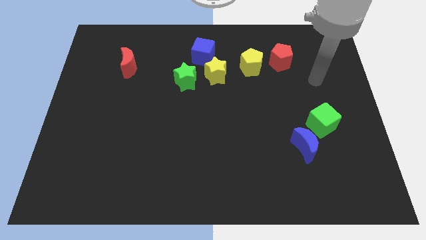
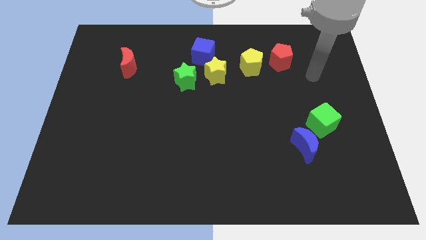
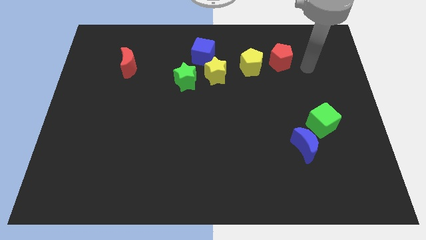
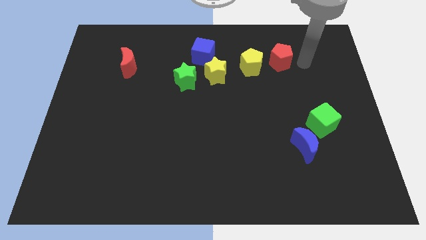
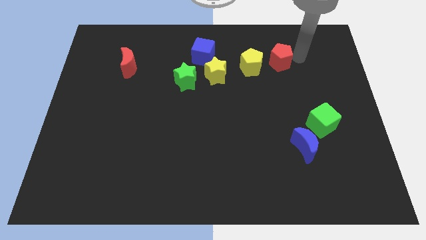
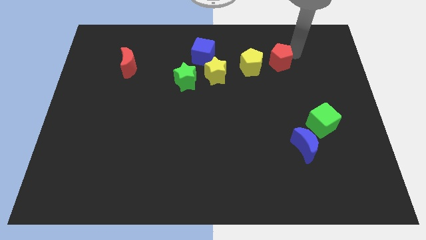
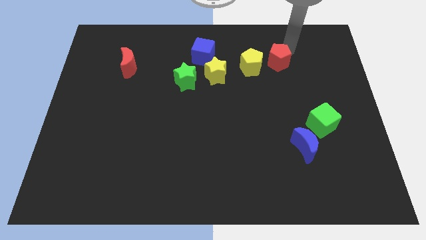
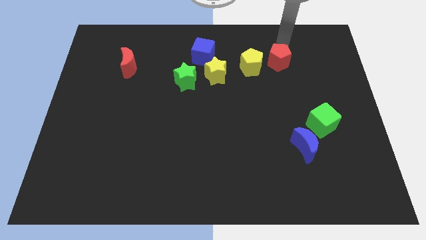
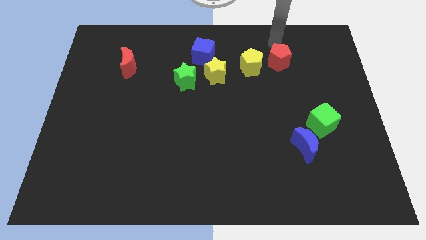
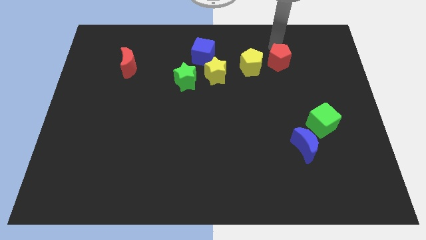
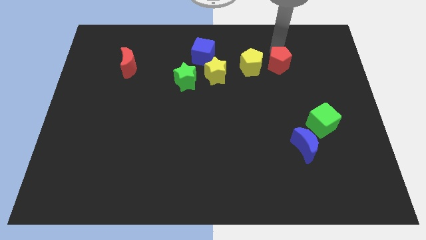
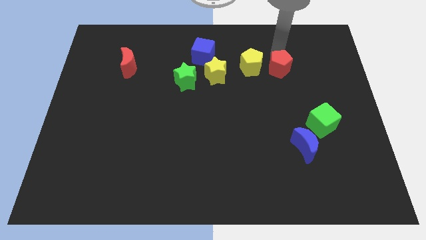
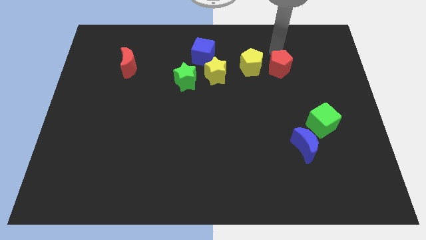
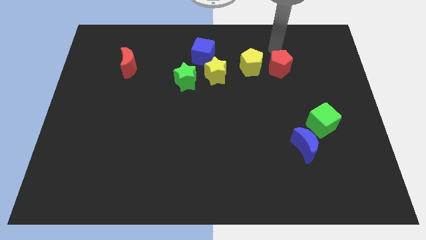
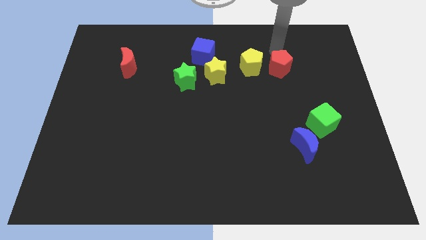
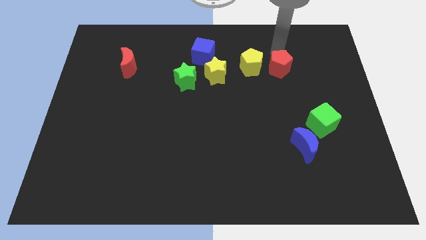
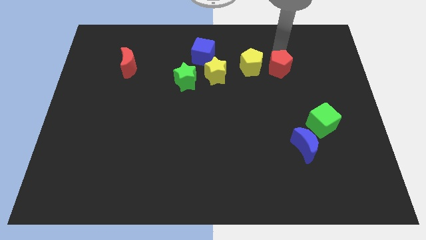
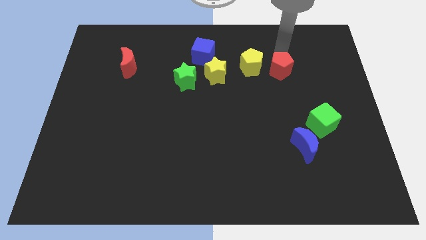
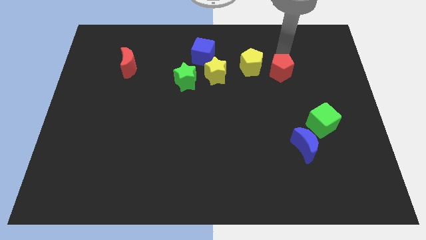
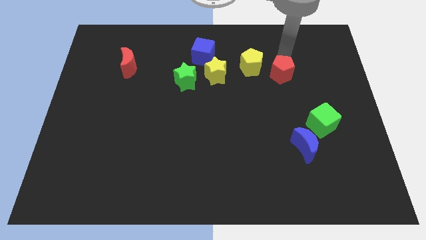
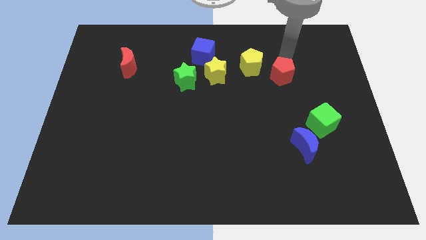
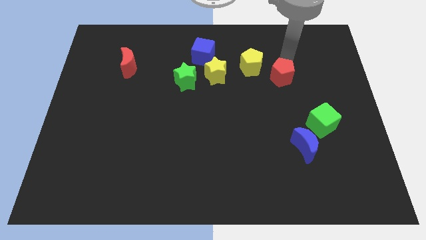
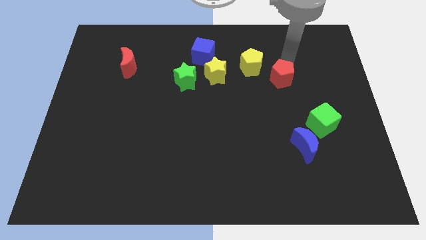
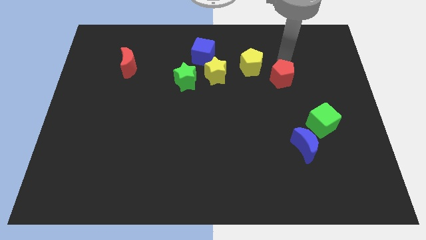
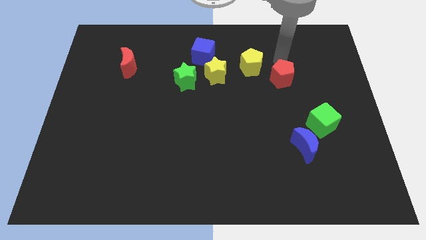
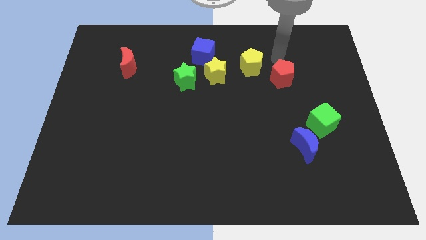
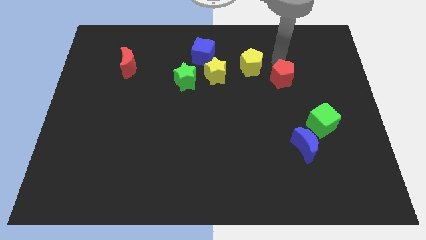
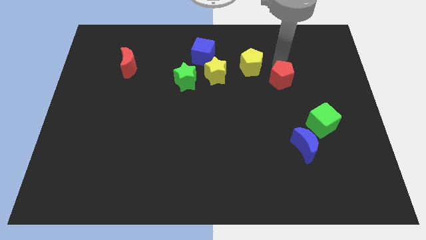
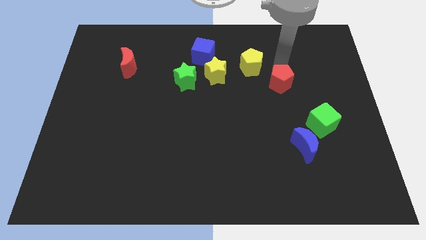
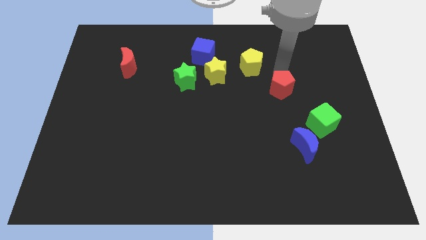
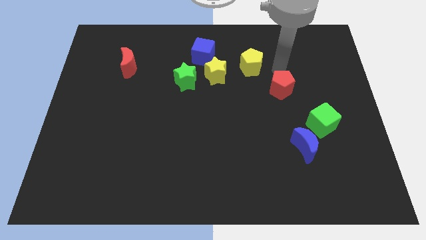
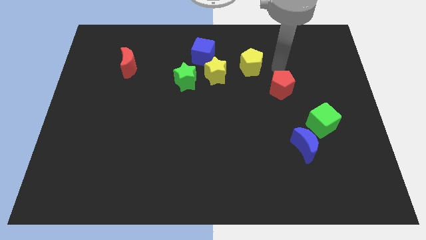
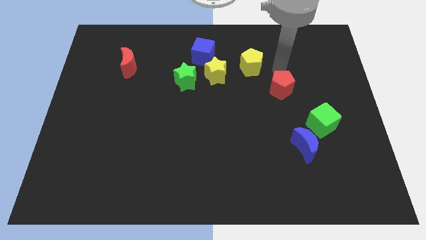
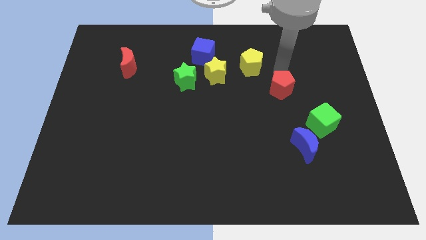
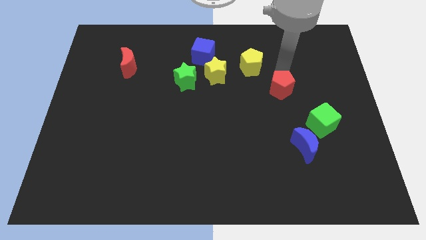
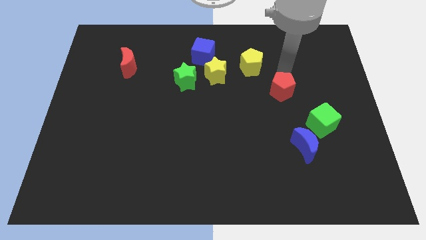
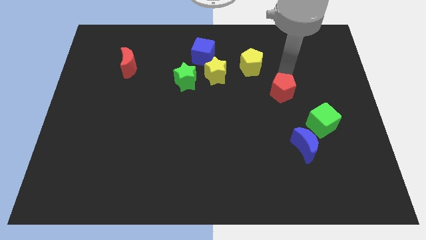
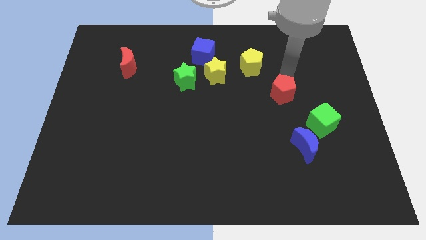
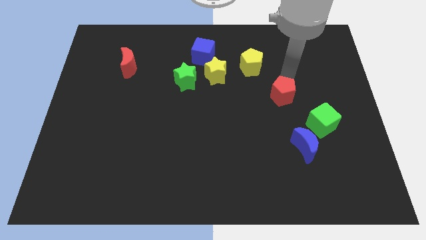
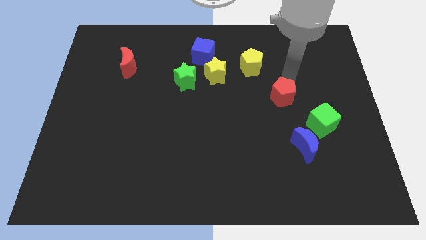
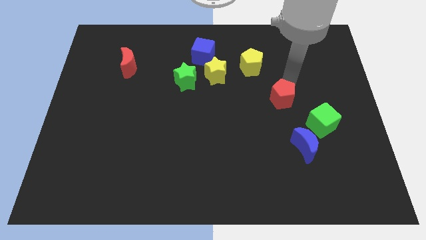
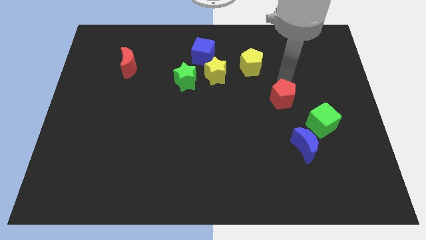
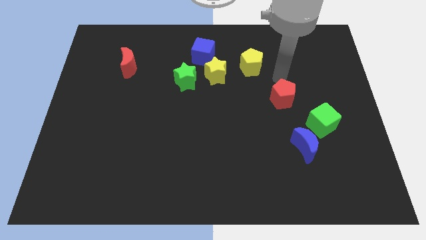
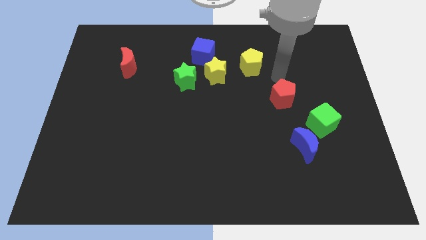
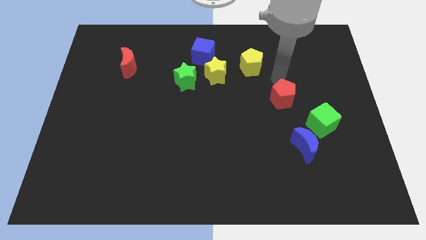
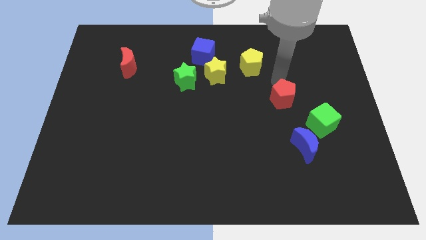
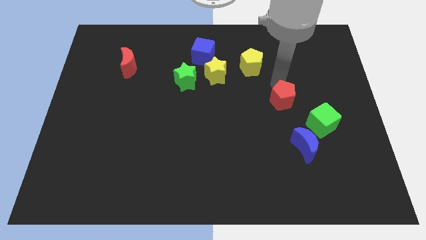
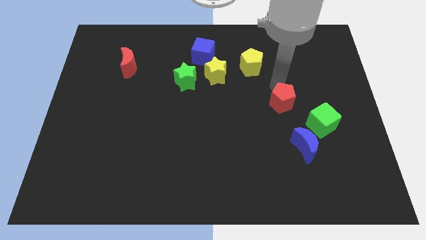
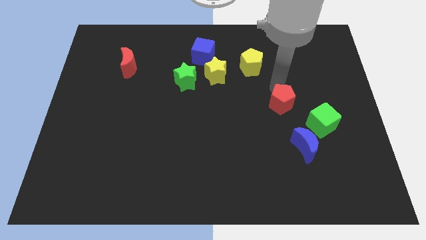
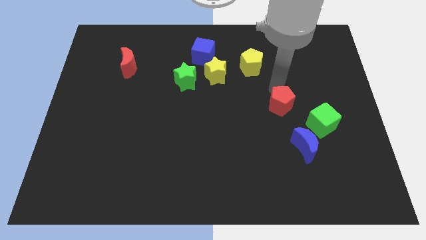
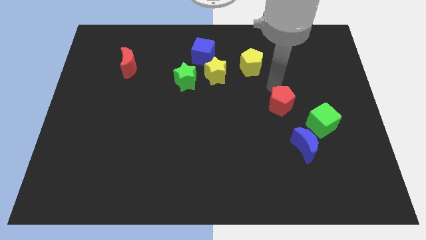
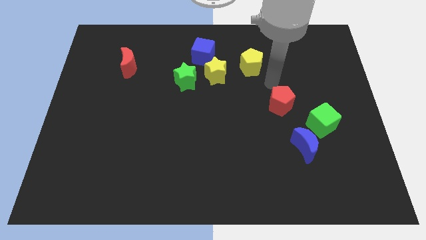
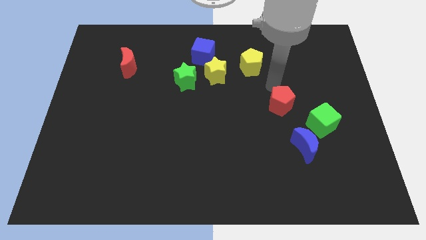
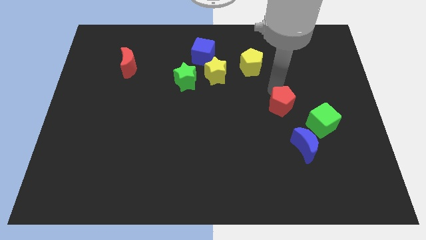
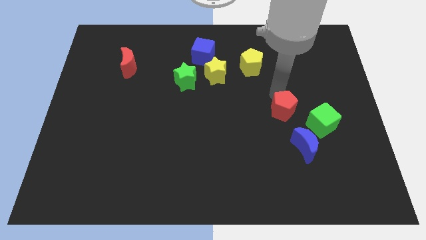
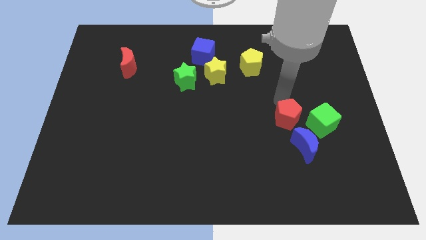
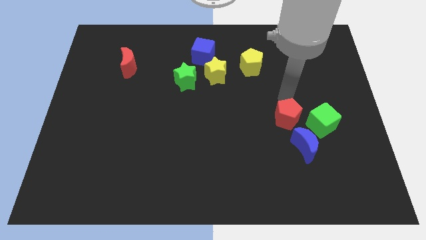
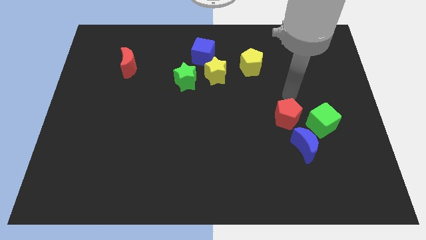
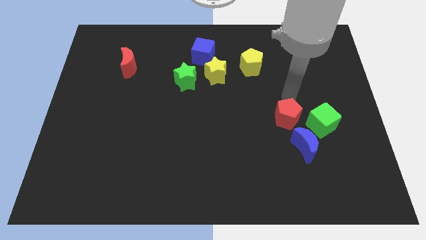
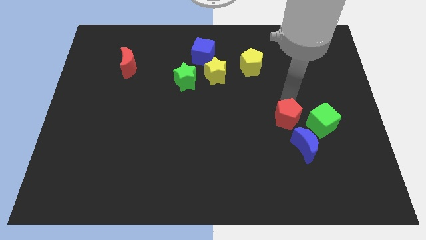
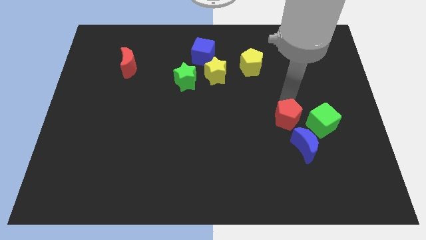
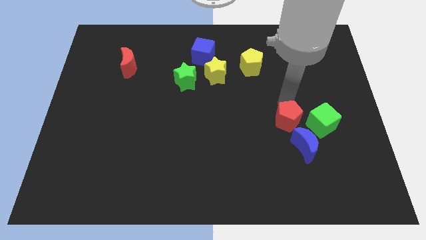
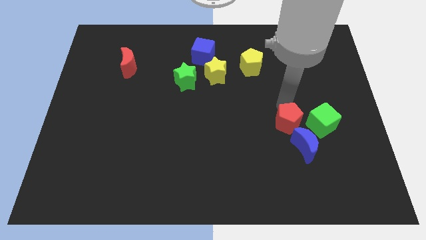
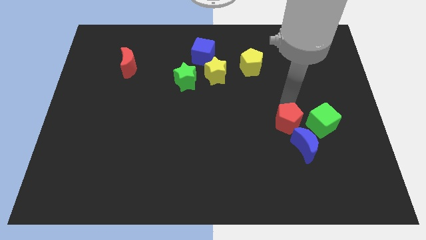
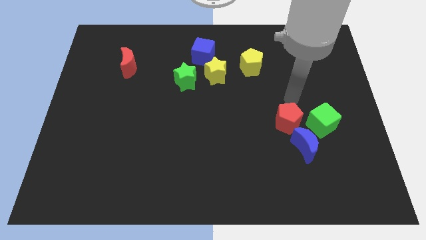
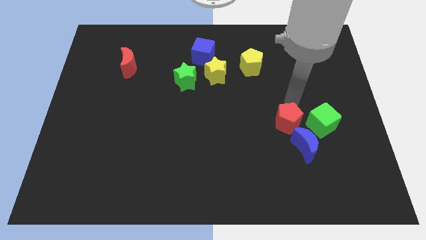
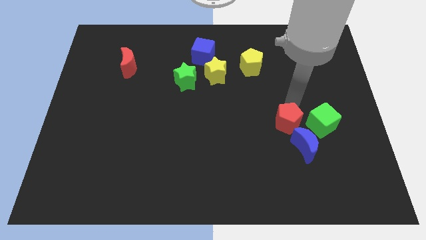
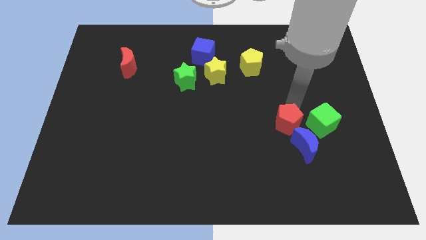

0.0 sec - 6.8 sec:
push the red pentagon downwards

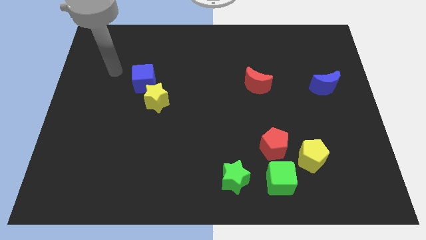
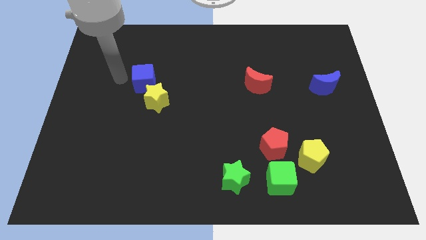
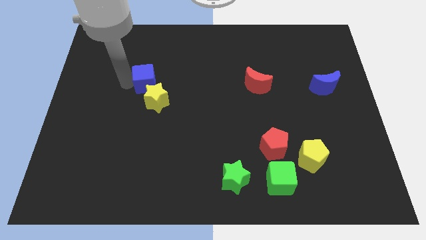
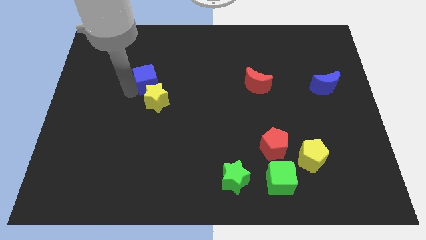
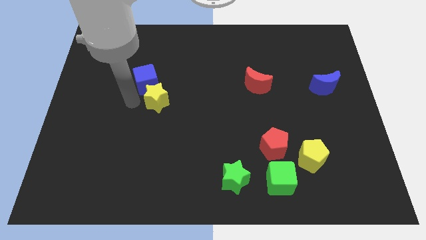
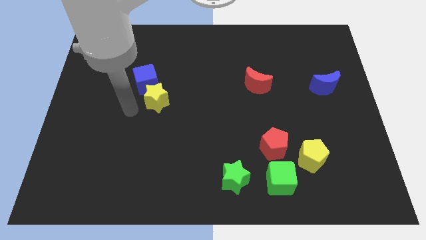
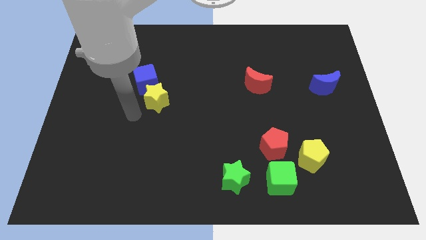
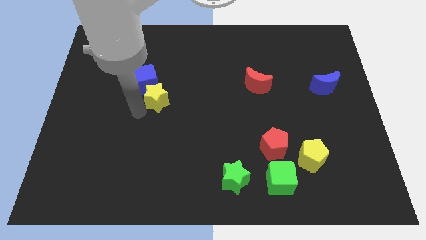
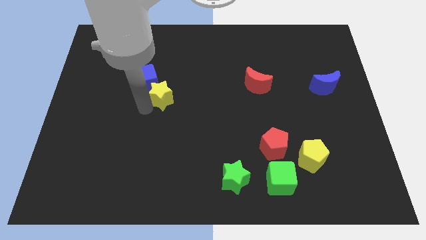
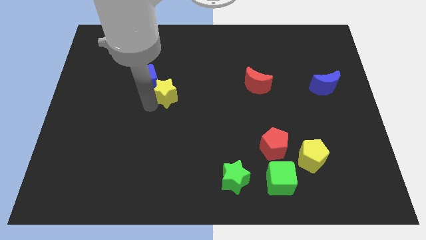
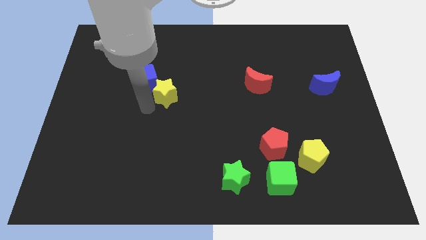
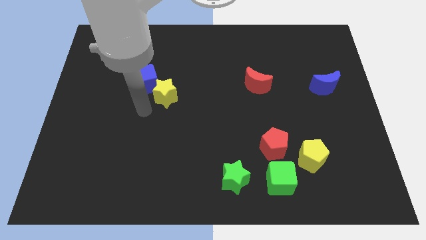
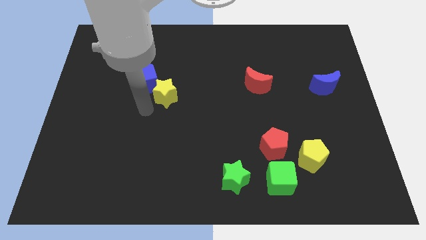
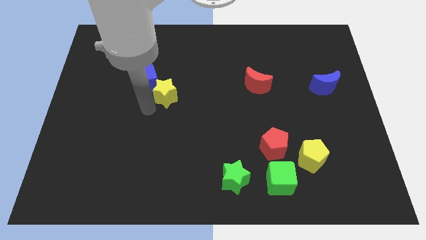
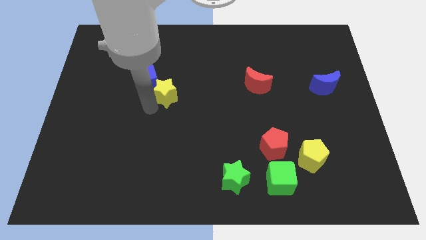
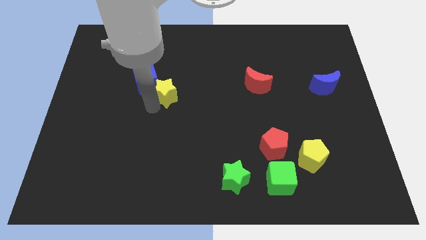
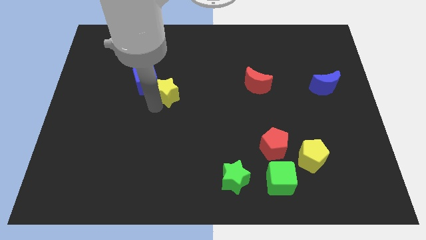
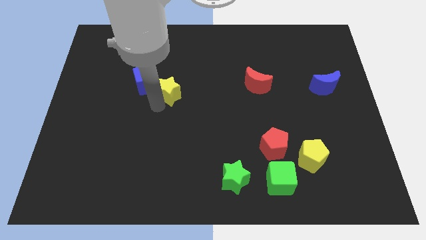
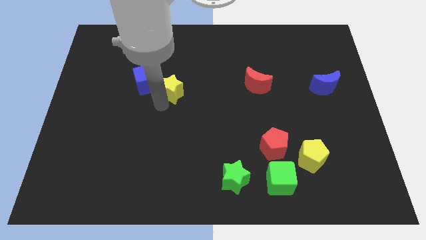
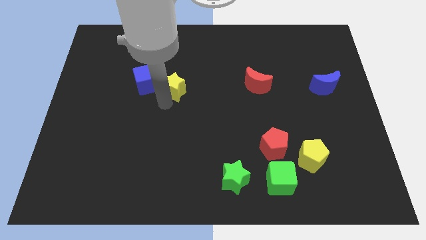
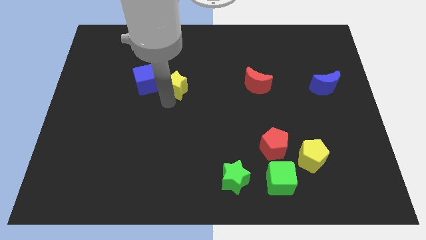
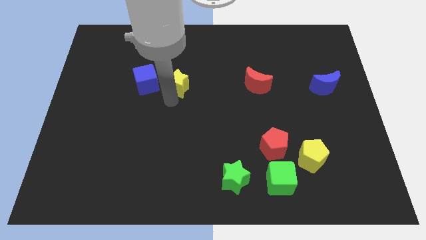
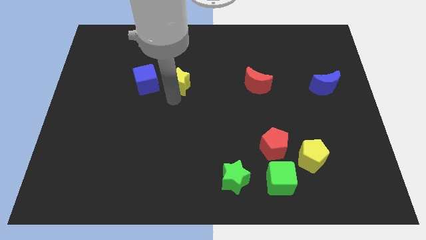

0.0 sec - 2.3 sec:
move the yellow star up and right diagonally a little
